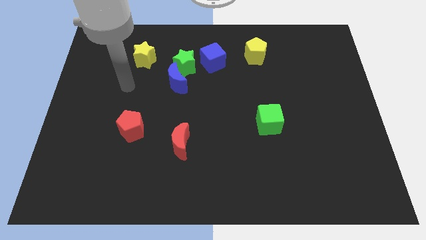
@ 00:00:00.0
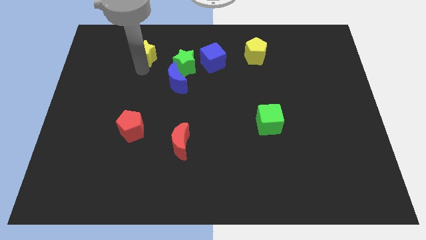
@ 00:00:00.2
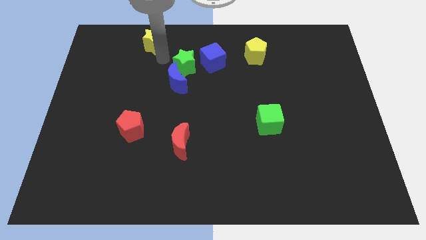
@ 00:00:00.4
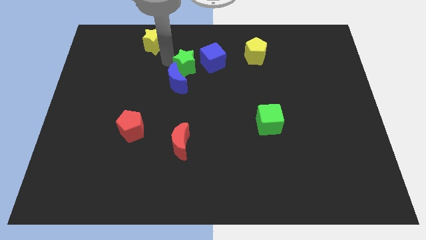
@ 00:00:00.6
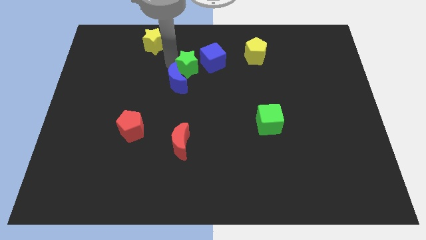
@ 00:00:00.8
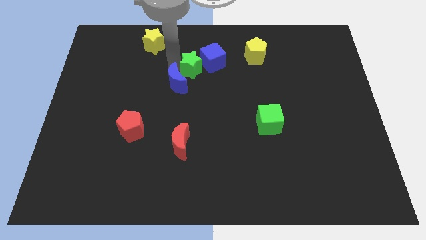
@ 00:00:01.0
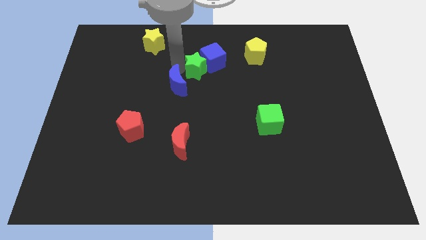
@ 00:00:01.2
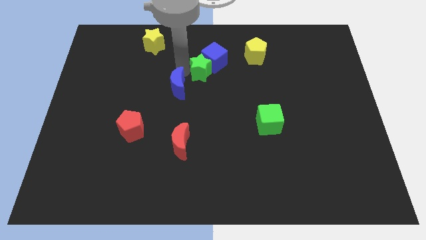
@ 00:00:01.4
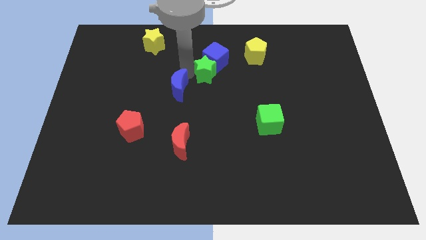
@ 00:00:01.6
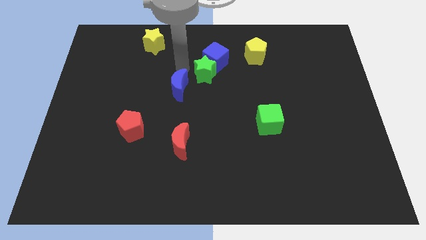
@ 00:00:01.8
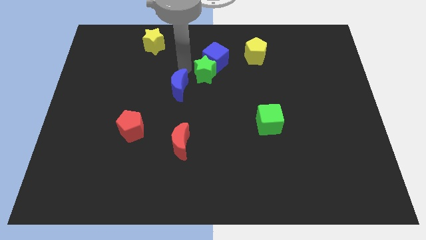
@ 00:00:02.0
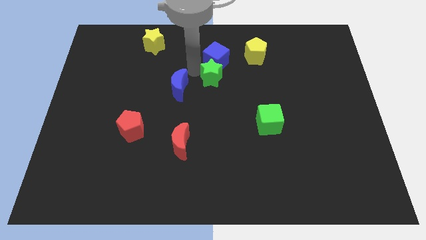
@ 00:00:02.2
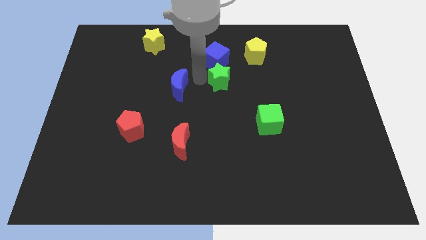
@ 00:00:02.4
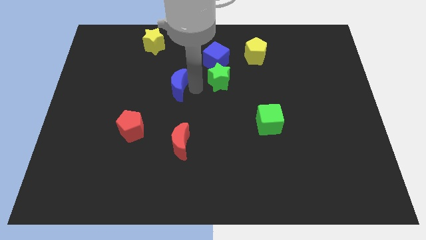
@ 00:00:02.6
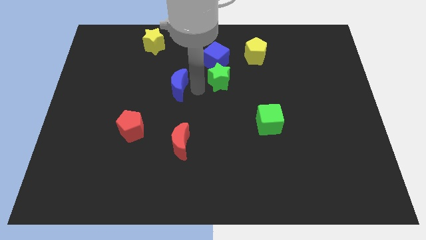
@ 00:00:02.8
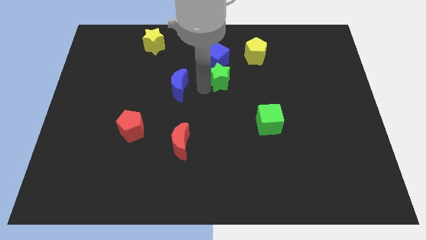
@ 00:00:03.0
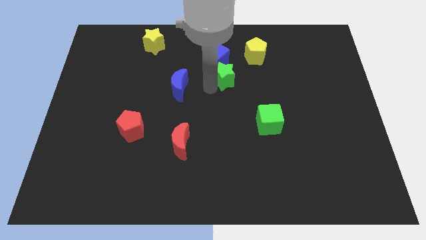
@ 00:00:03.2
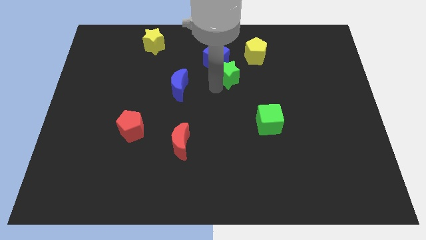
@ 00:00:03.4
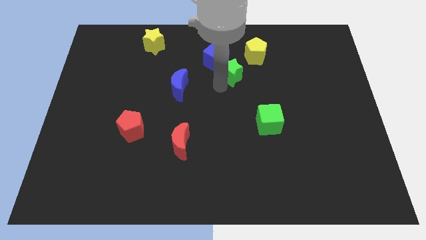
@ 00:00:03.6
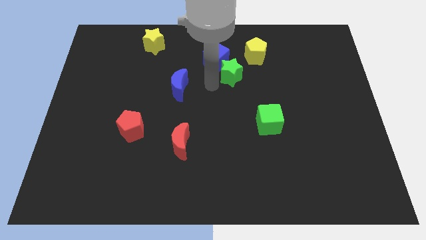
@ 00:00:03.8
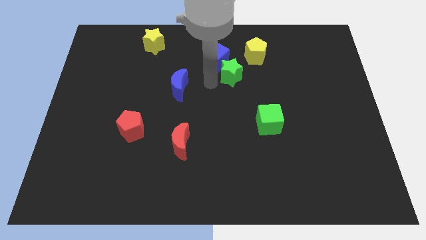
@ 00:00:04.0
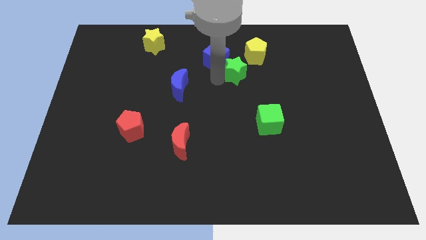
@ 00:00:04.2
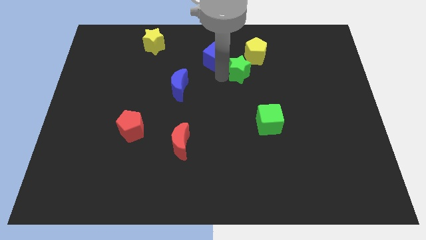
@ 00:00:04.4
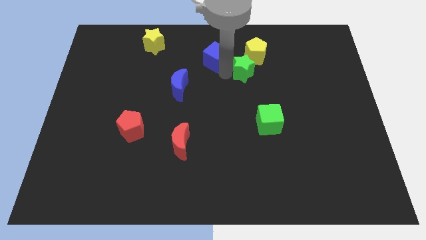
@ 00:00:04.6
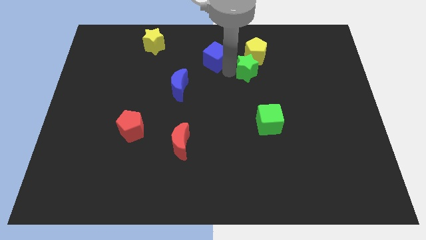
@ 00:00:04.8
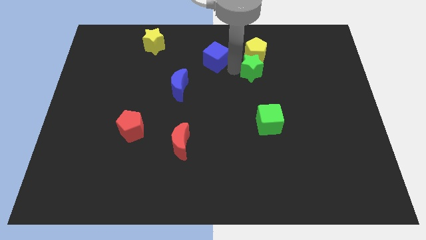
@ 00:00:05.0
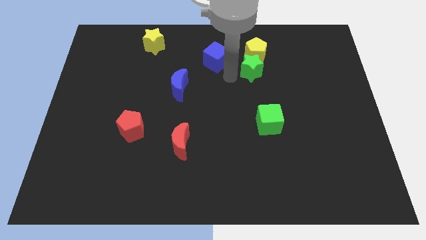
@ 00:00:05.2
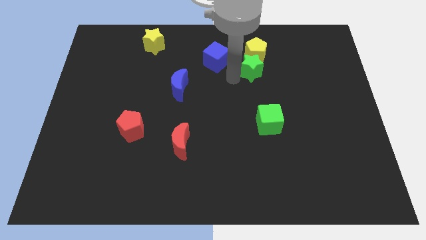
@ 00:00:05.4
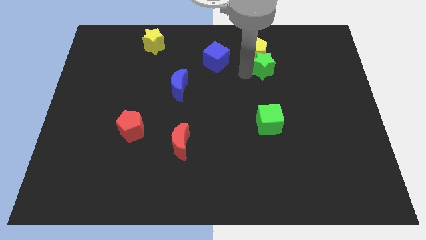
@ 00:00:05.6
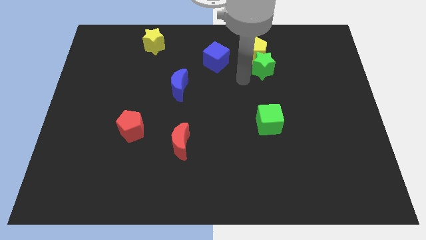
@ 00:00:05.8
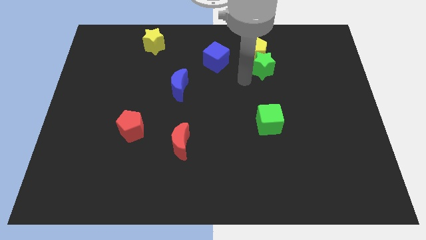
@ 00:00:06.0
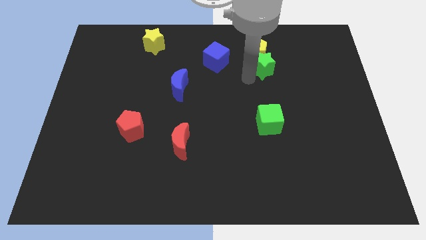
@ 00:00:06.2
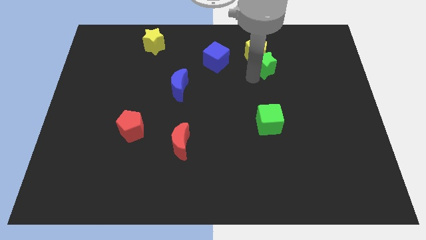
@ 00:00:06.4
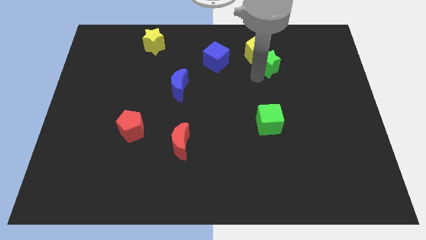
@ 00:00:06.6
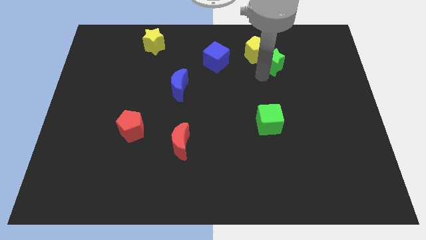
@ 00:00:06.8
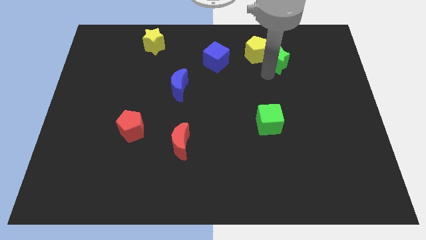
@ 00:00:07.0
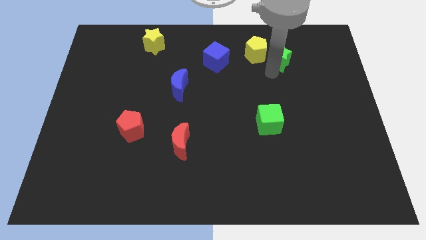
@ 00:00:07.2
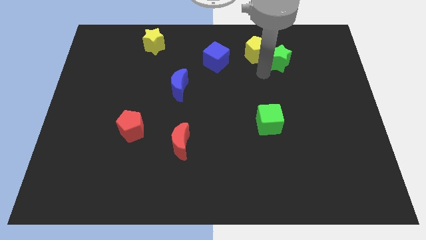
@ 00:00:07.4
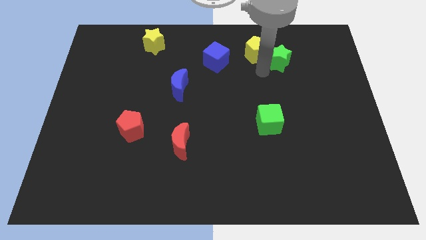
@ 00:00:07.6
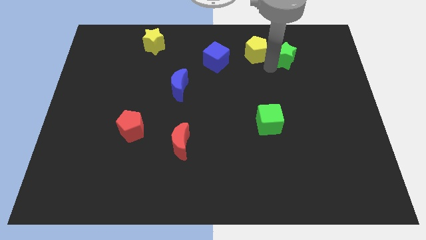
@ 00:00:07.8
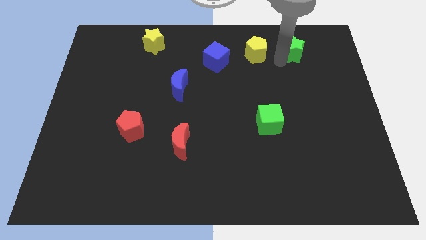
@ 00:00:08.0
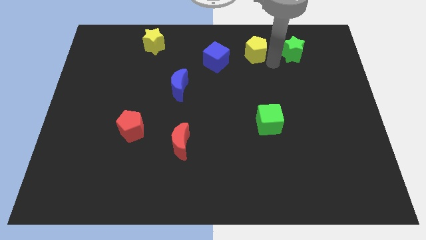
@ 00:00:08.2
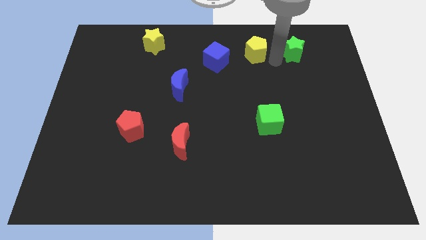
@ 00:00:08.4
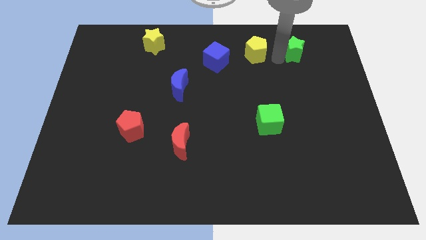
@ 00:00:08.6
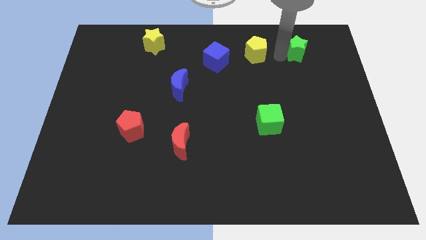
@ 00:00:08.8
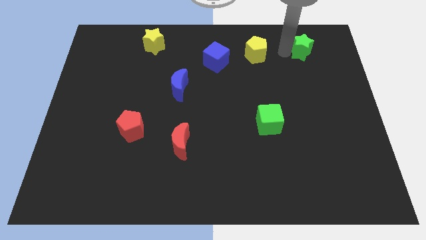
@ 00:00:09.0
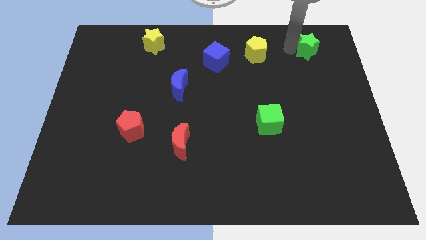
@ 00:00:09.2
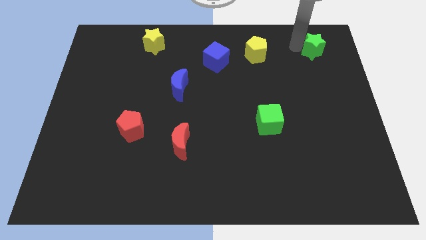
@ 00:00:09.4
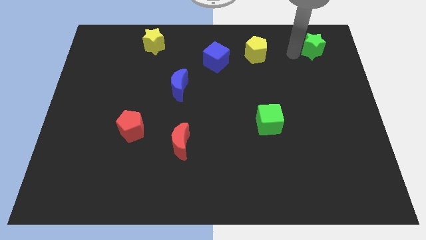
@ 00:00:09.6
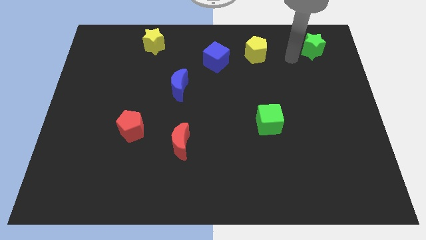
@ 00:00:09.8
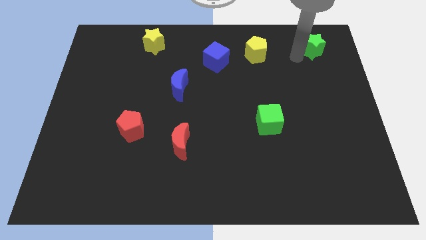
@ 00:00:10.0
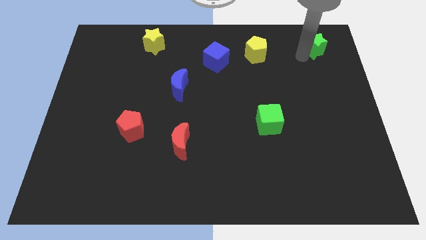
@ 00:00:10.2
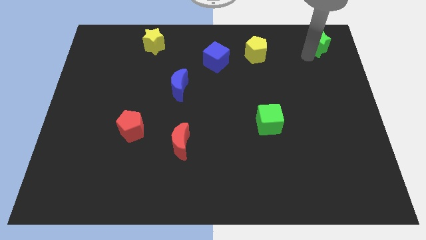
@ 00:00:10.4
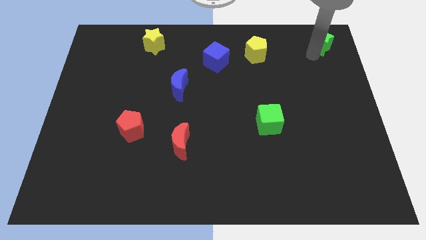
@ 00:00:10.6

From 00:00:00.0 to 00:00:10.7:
move the green star to the top right

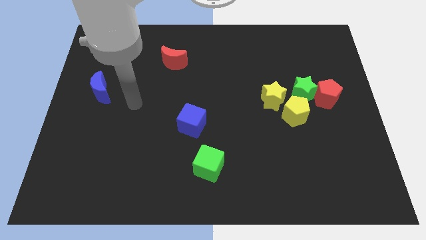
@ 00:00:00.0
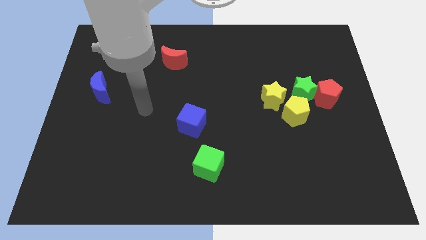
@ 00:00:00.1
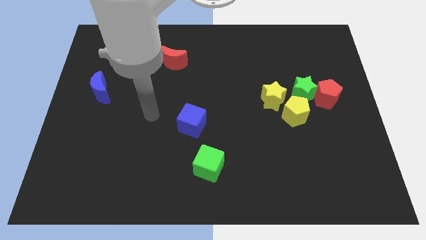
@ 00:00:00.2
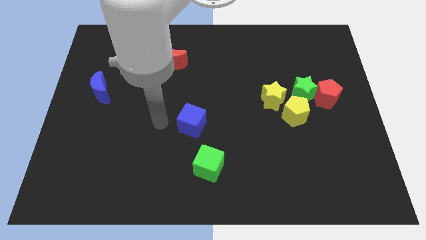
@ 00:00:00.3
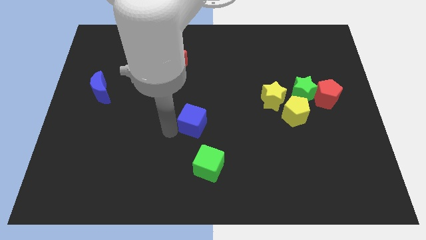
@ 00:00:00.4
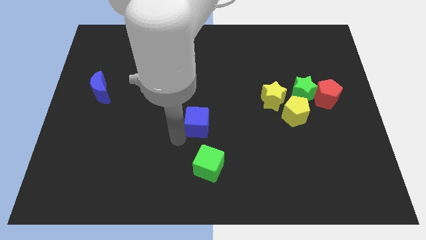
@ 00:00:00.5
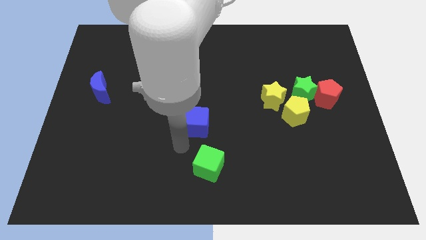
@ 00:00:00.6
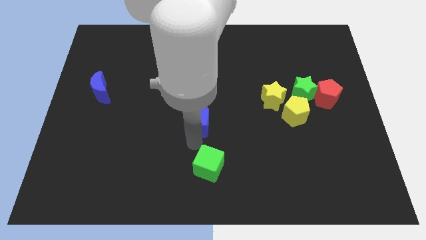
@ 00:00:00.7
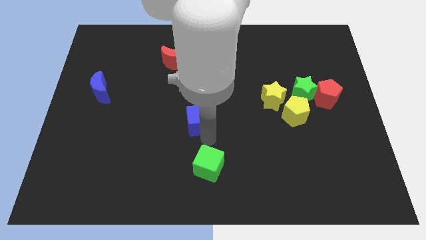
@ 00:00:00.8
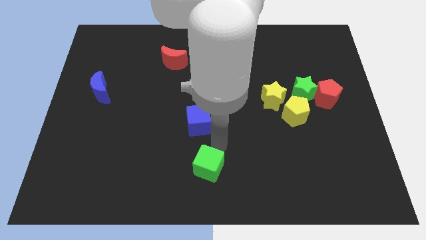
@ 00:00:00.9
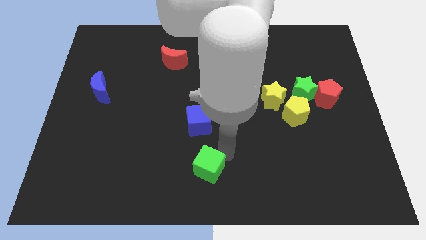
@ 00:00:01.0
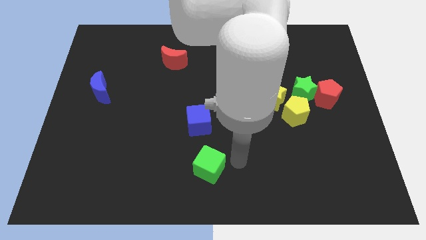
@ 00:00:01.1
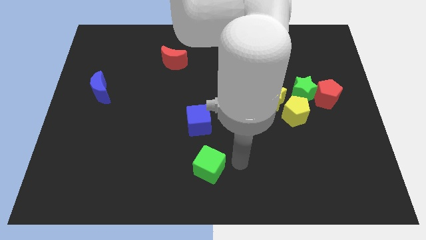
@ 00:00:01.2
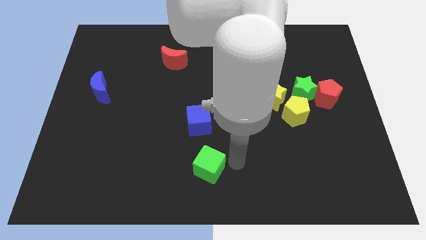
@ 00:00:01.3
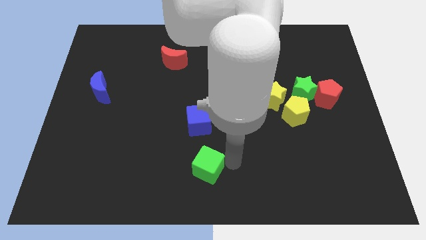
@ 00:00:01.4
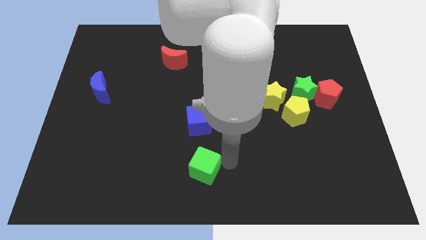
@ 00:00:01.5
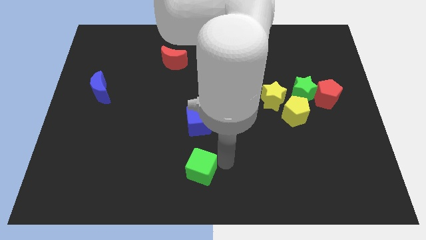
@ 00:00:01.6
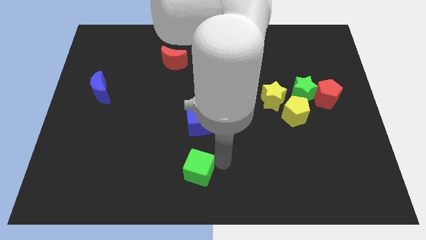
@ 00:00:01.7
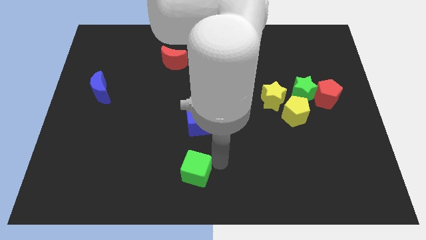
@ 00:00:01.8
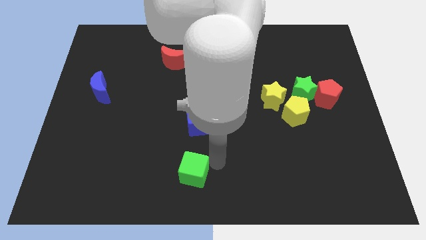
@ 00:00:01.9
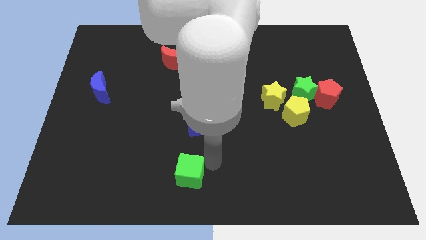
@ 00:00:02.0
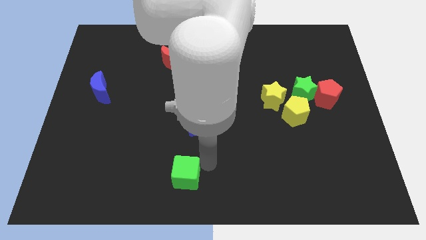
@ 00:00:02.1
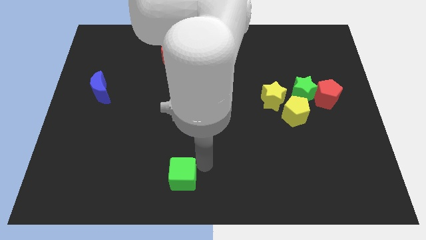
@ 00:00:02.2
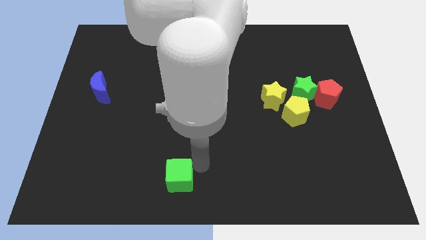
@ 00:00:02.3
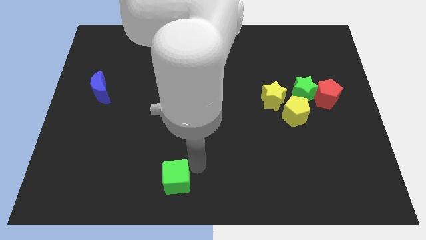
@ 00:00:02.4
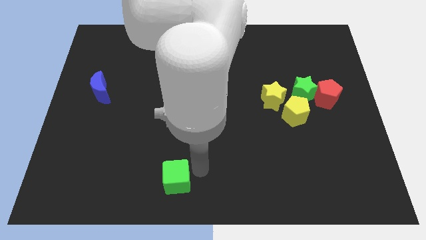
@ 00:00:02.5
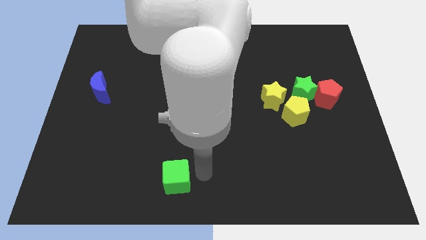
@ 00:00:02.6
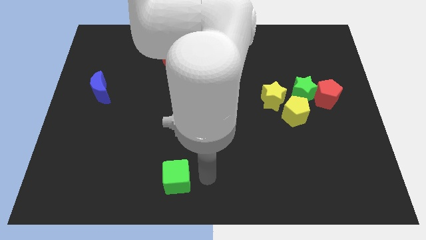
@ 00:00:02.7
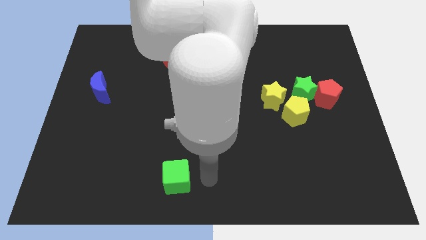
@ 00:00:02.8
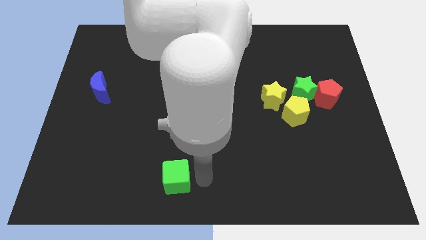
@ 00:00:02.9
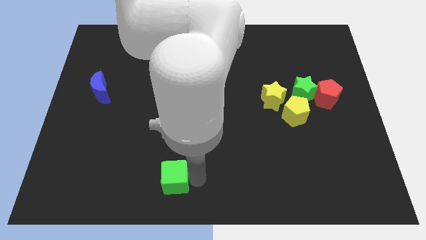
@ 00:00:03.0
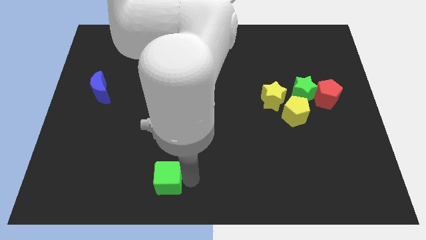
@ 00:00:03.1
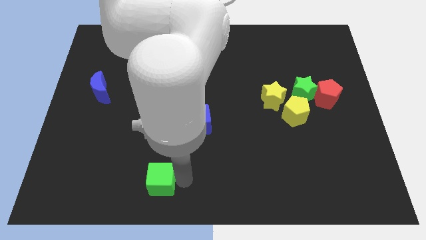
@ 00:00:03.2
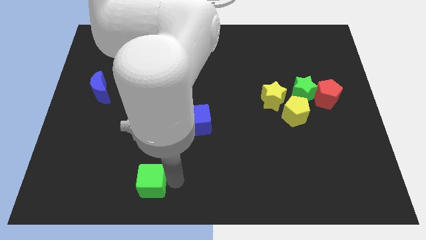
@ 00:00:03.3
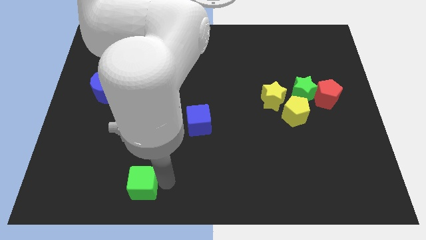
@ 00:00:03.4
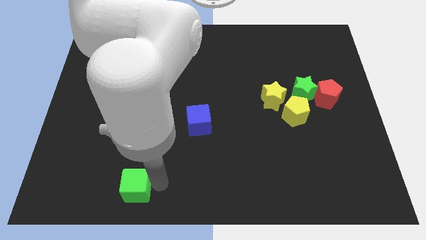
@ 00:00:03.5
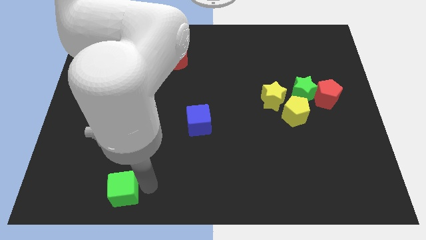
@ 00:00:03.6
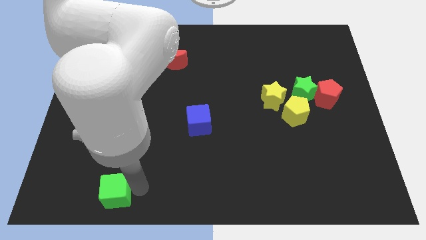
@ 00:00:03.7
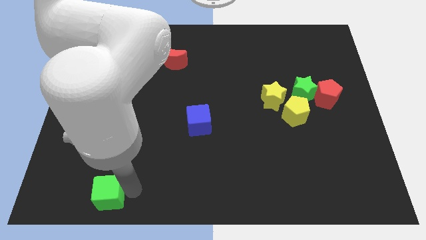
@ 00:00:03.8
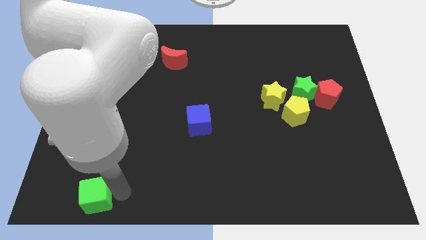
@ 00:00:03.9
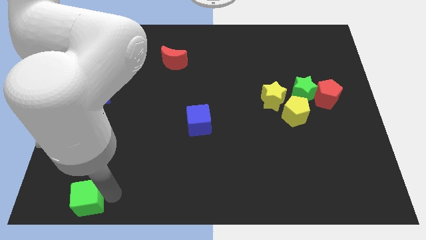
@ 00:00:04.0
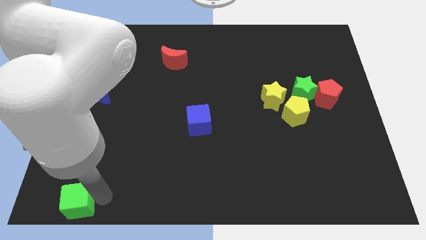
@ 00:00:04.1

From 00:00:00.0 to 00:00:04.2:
move the green cube to the lower left corner
